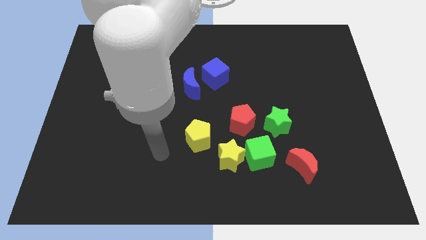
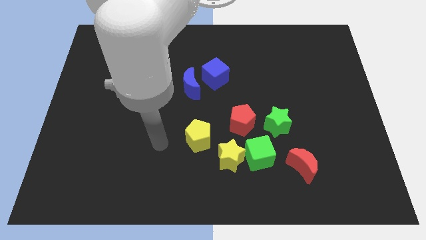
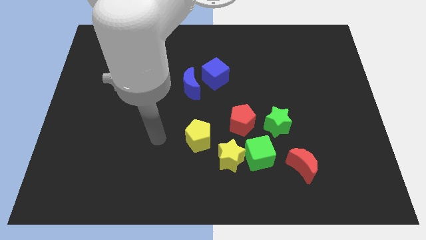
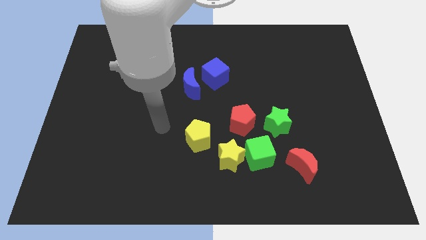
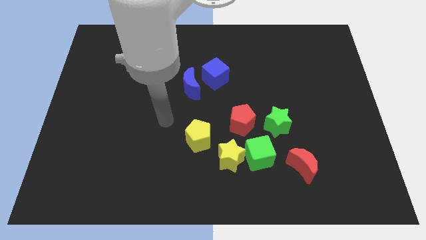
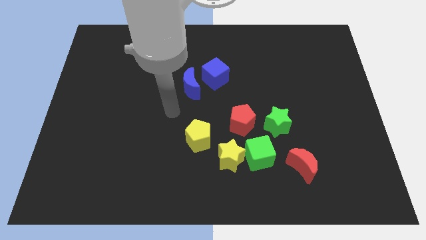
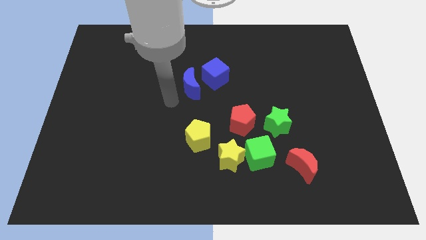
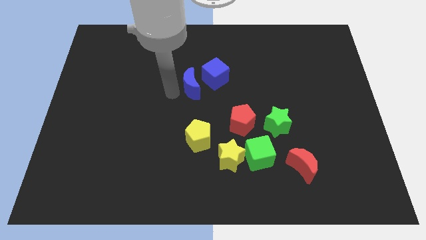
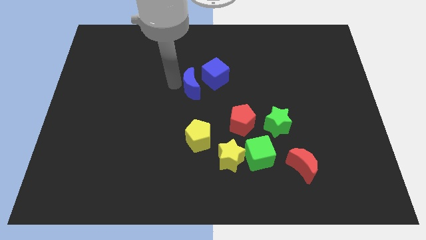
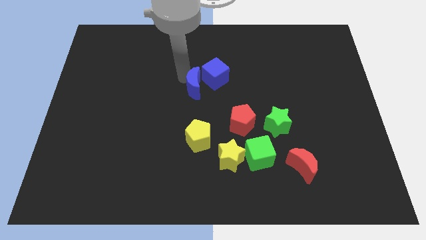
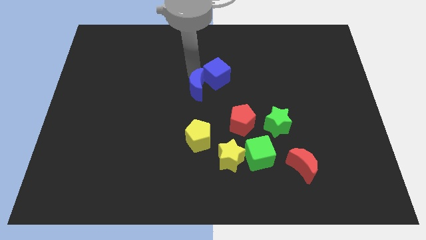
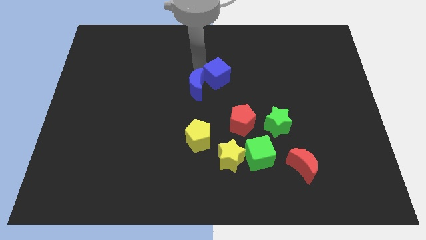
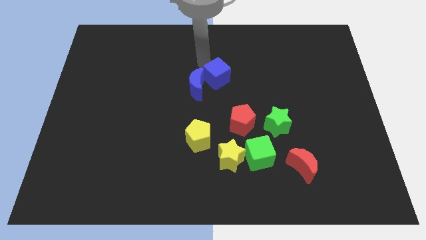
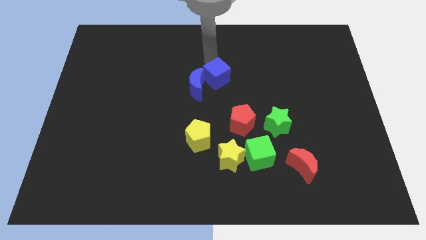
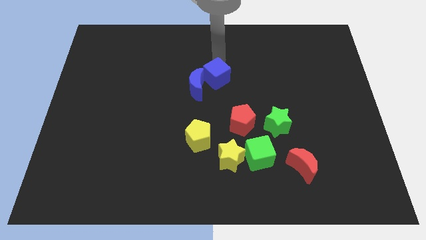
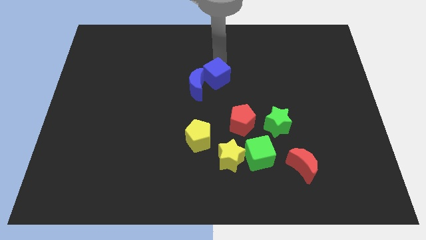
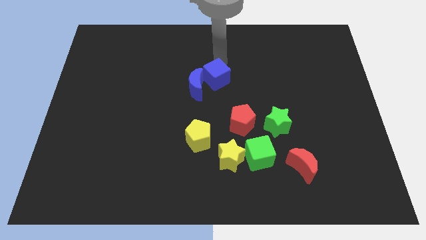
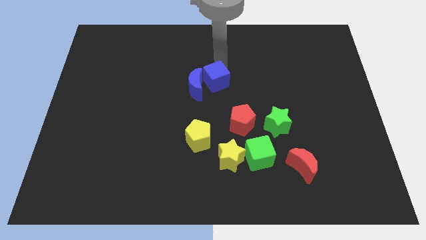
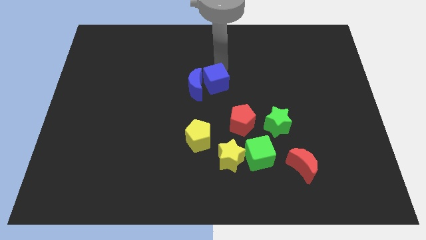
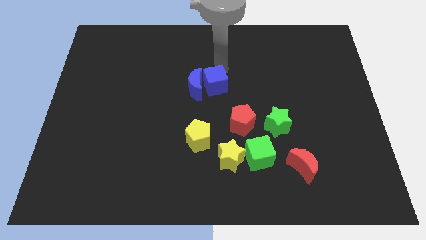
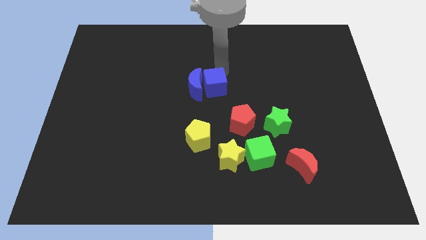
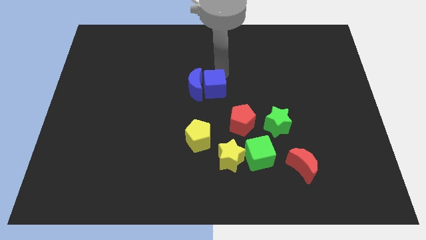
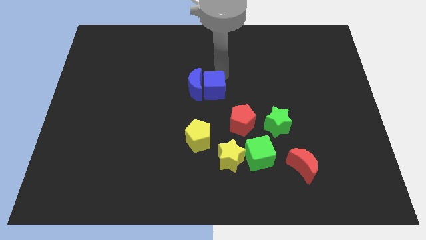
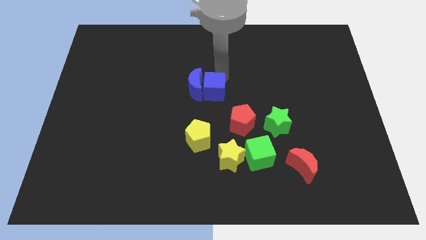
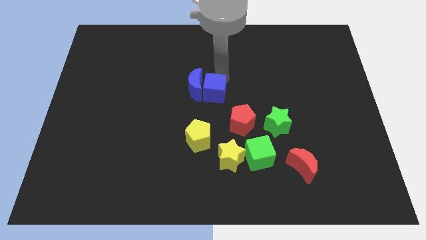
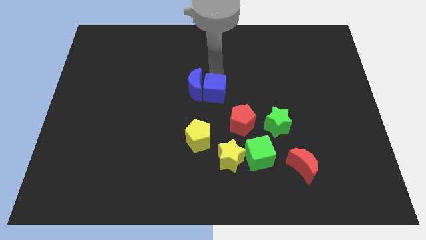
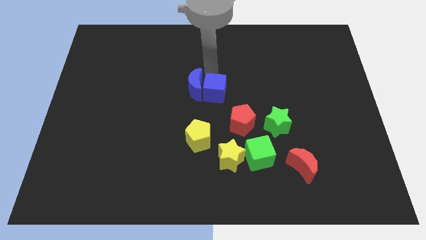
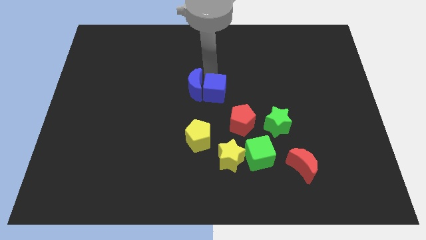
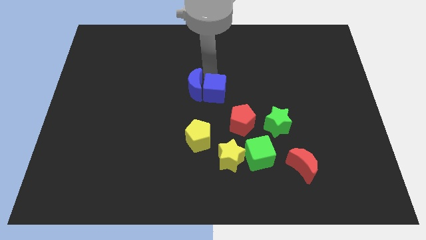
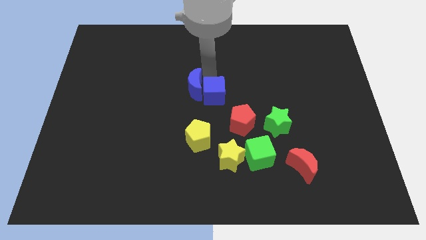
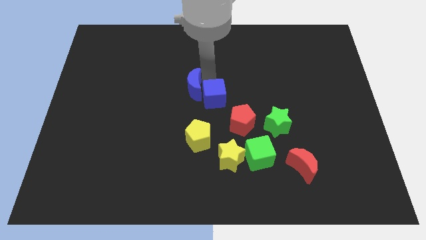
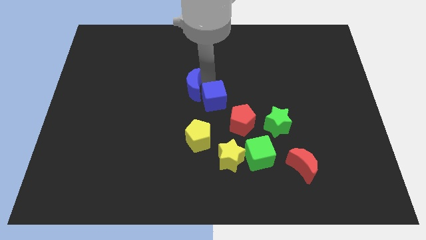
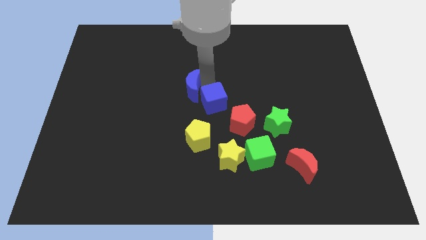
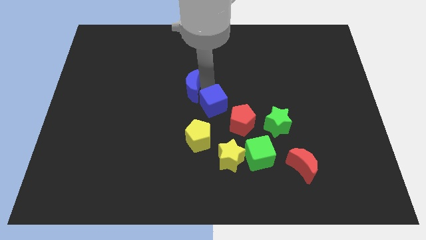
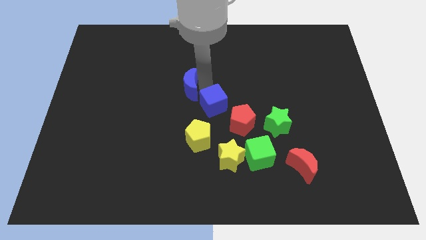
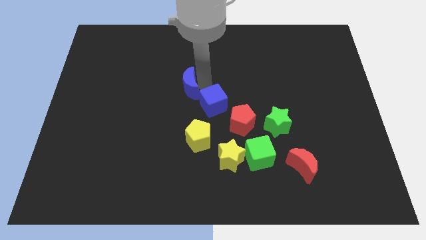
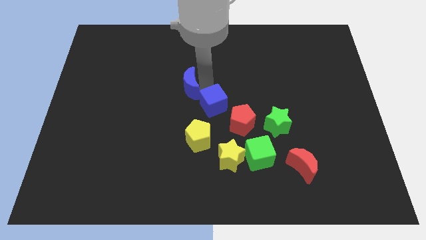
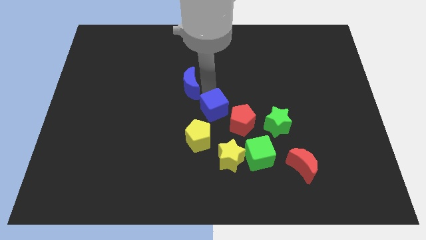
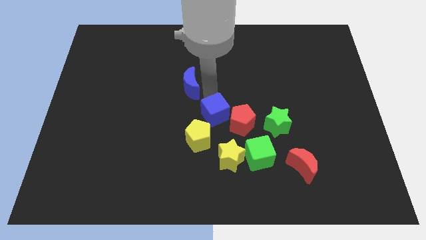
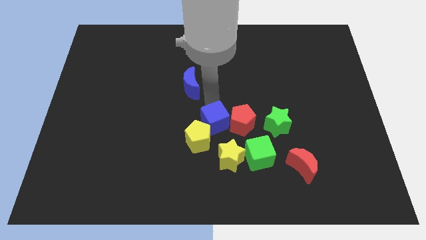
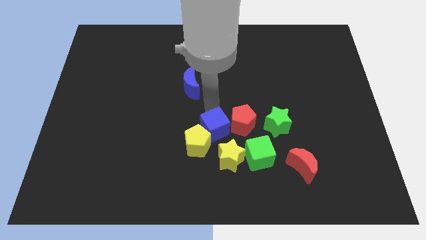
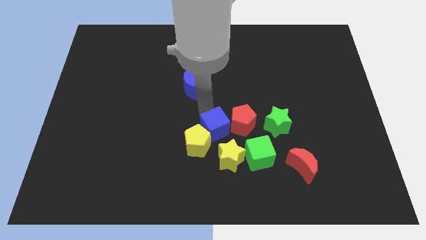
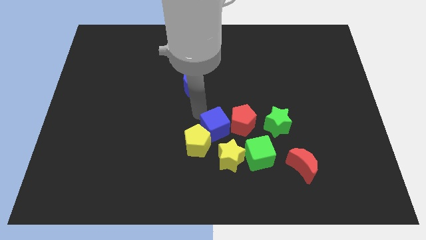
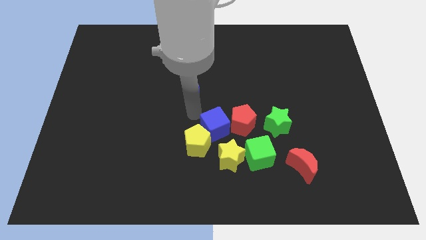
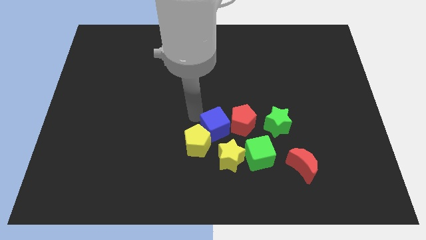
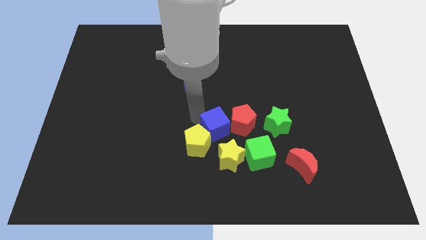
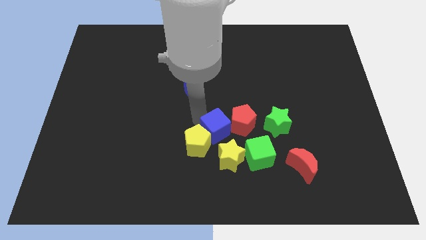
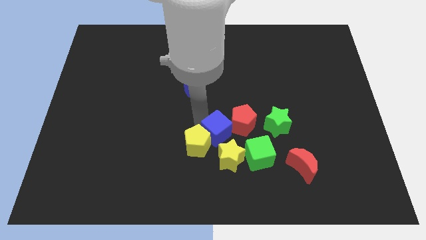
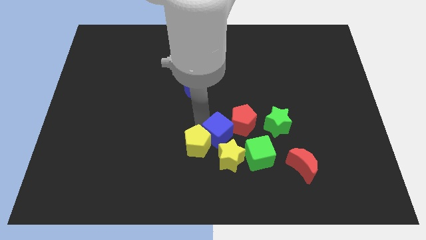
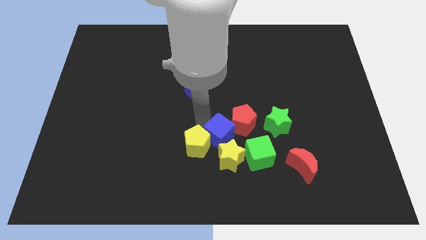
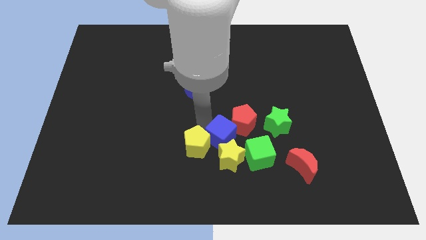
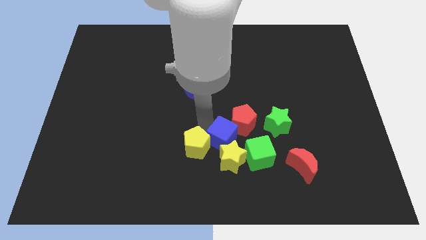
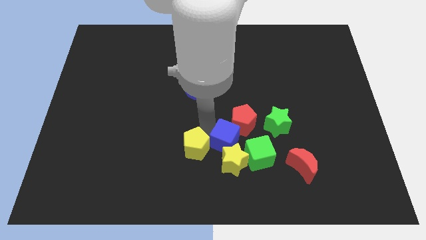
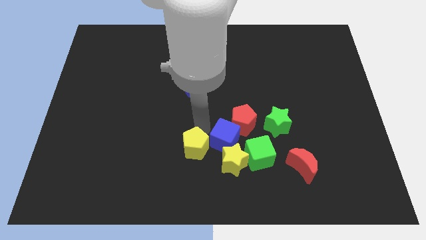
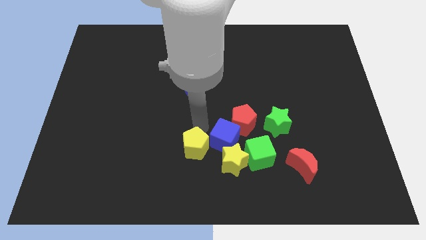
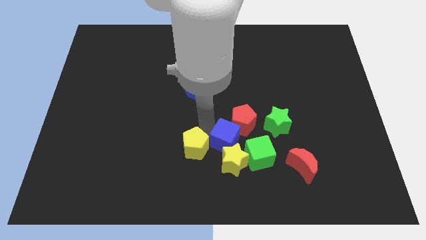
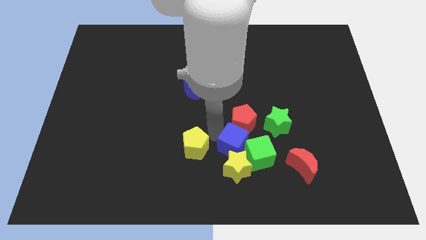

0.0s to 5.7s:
put the blue cube close to the green cube

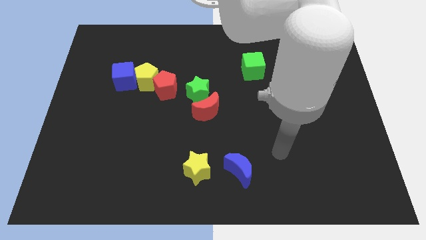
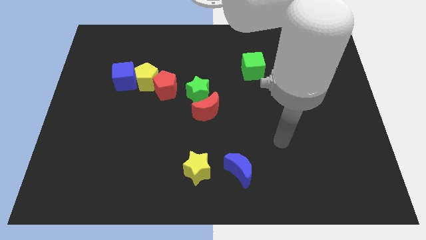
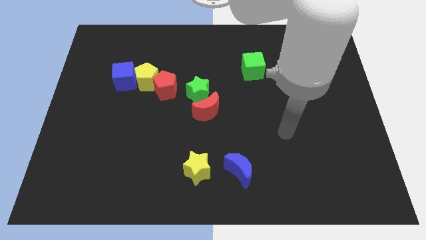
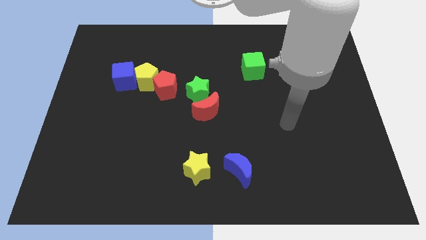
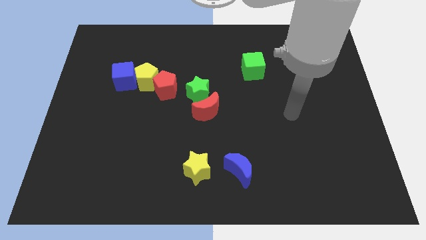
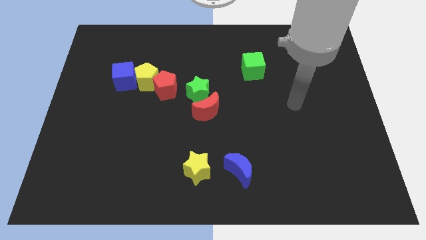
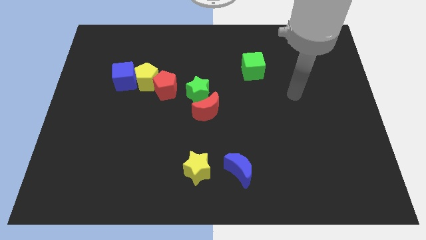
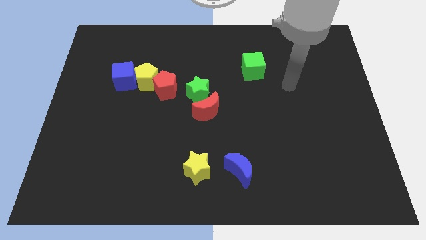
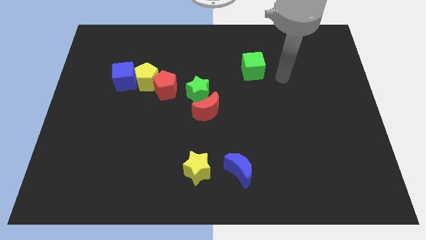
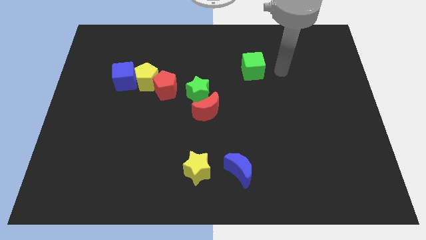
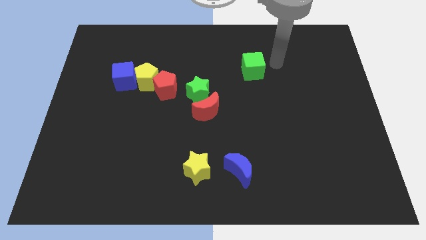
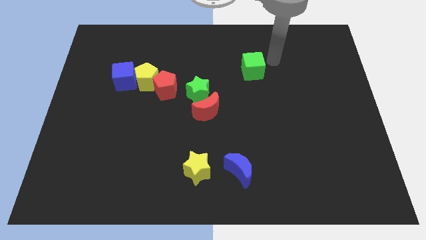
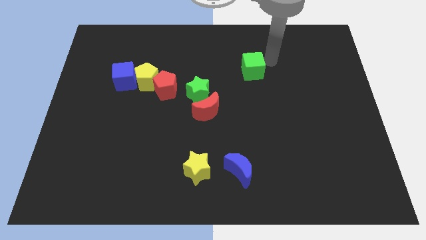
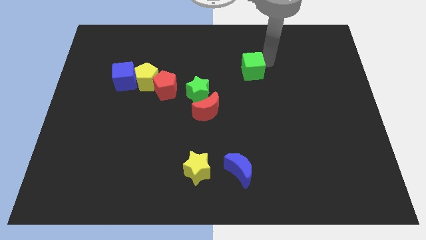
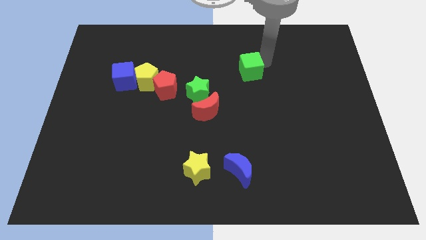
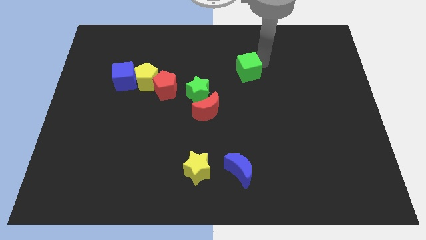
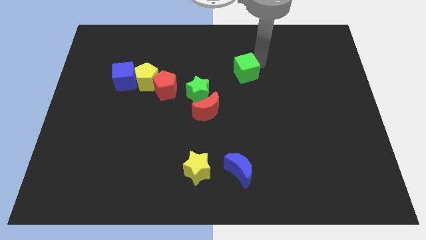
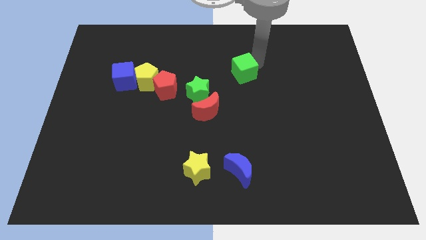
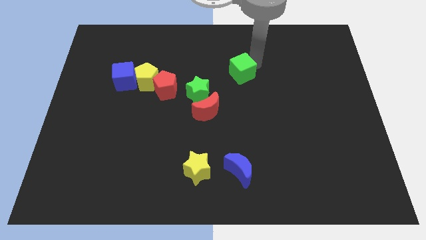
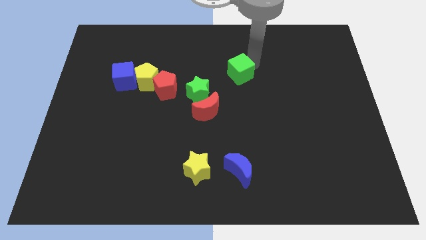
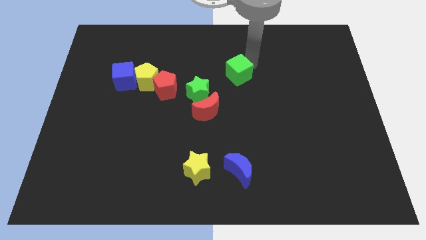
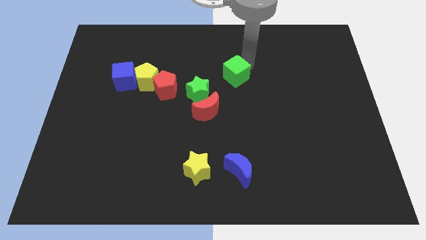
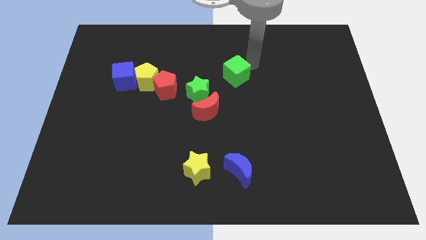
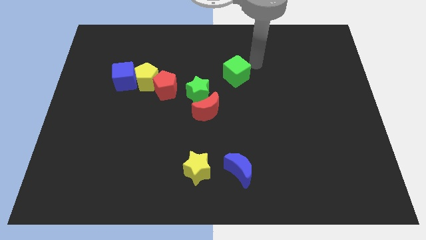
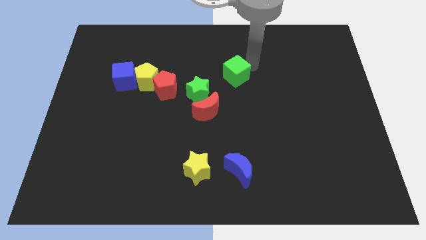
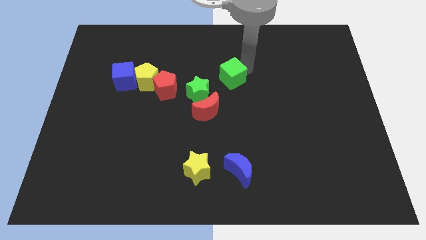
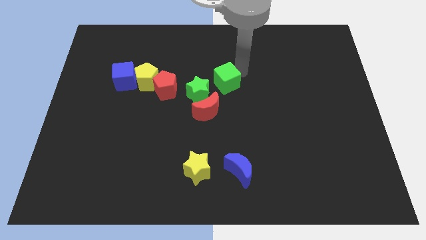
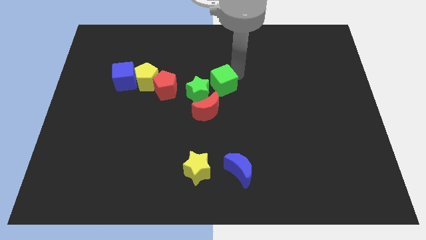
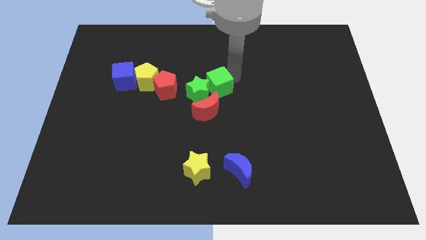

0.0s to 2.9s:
push the green cube towards the green star
